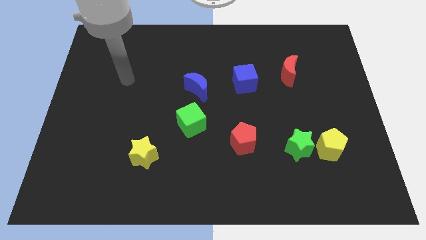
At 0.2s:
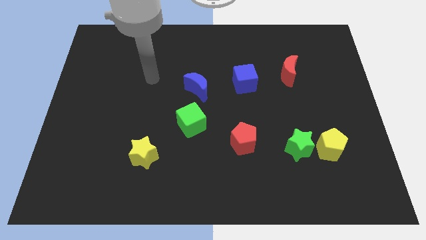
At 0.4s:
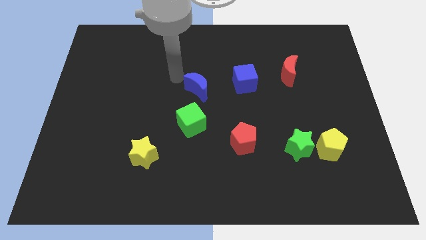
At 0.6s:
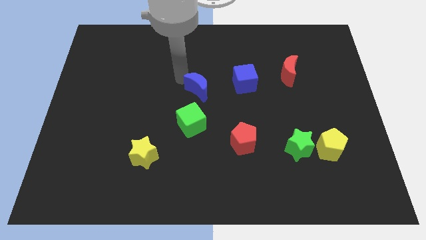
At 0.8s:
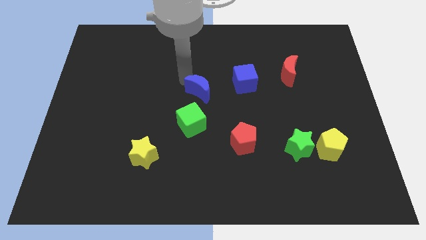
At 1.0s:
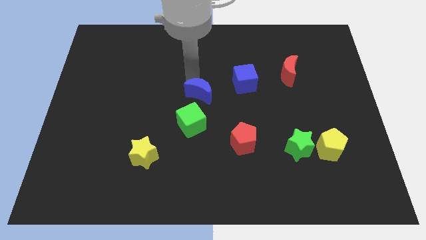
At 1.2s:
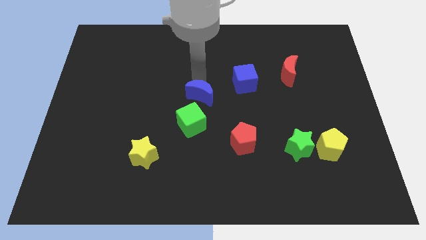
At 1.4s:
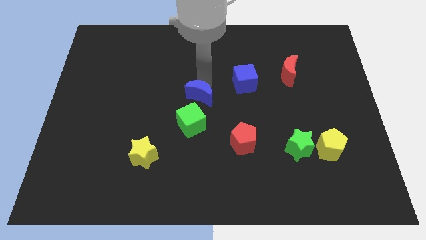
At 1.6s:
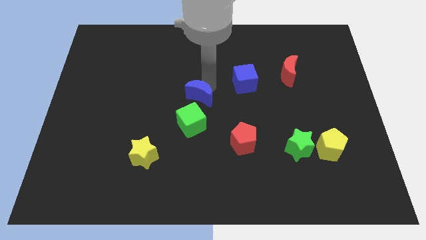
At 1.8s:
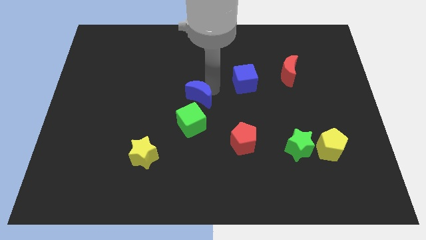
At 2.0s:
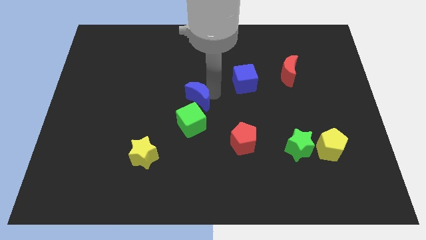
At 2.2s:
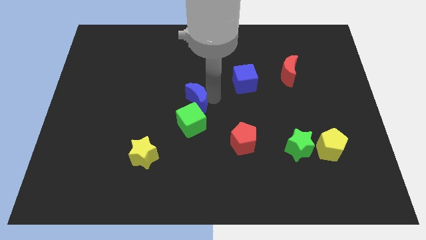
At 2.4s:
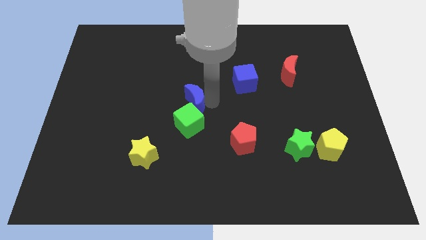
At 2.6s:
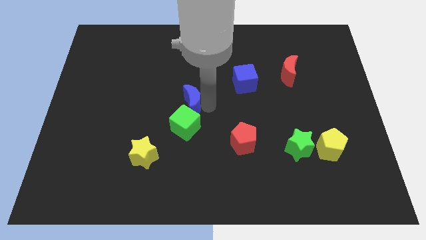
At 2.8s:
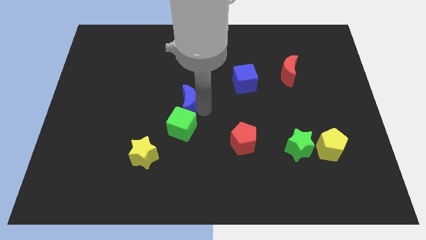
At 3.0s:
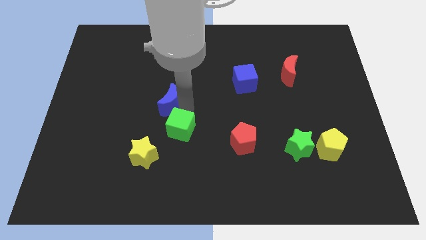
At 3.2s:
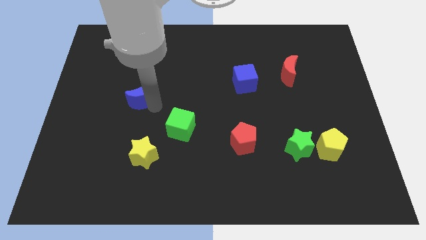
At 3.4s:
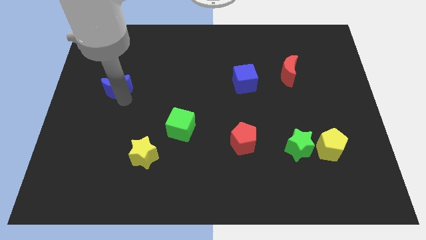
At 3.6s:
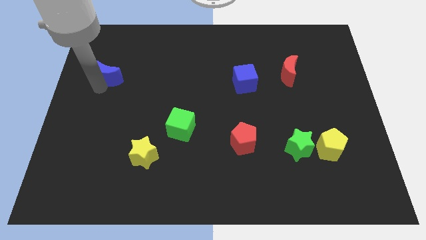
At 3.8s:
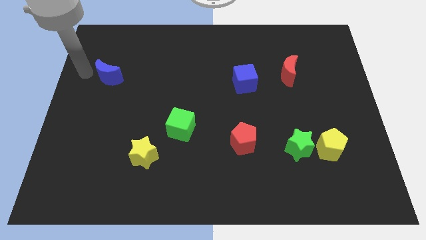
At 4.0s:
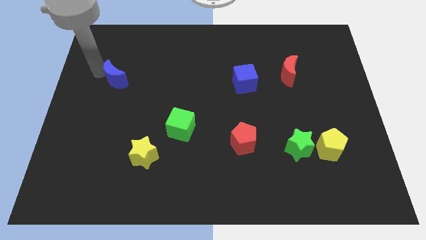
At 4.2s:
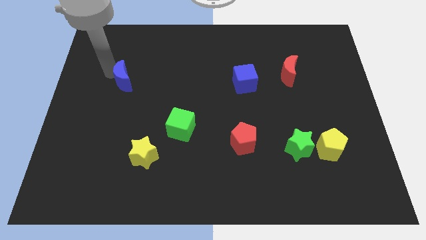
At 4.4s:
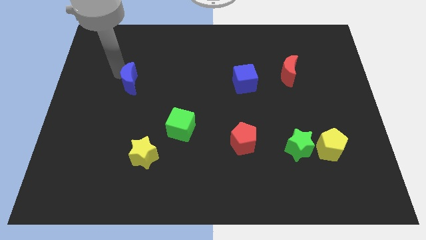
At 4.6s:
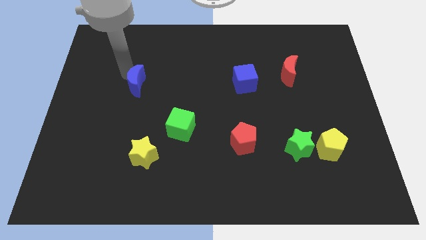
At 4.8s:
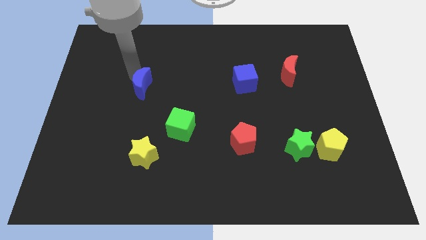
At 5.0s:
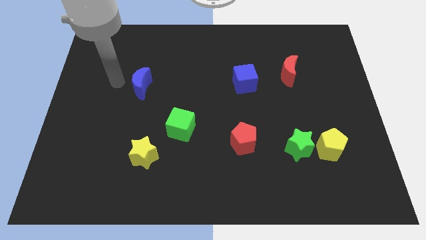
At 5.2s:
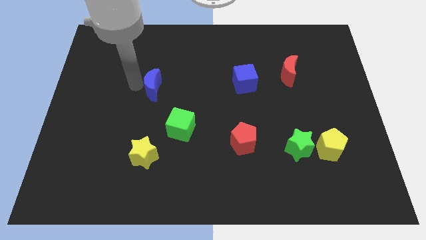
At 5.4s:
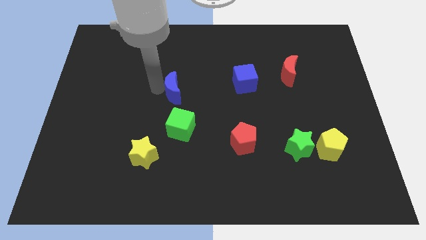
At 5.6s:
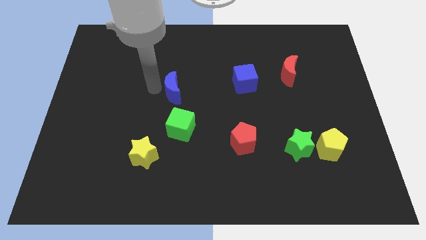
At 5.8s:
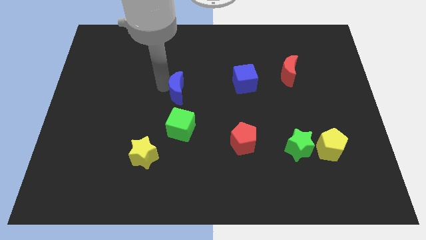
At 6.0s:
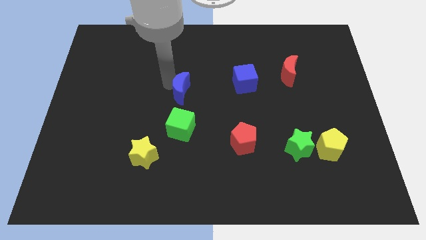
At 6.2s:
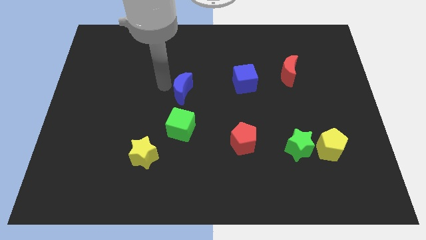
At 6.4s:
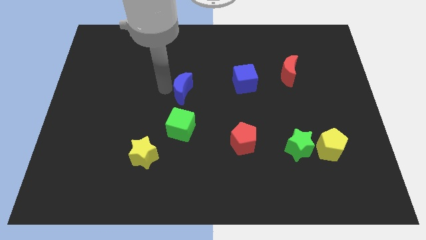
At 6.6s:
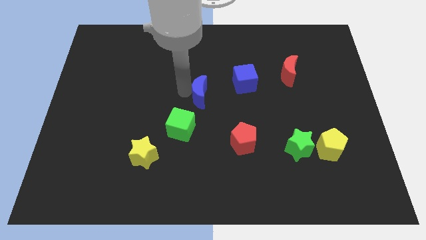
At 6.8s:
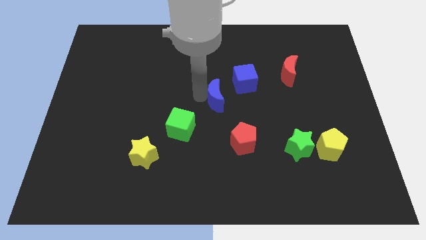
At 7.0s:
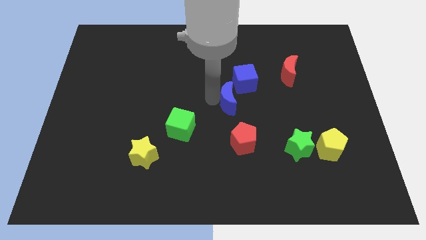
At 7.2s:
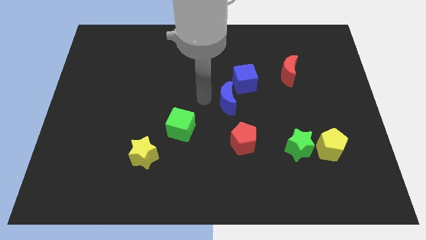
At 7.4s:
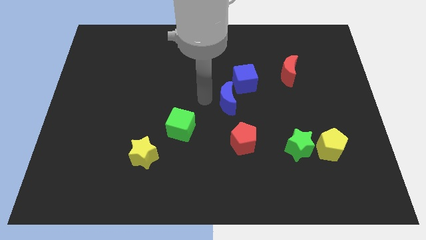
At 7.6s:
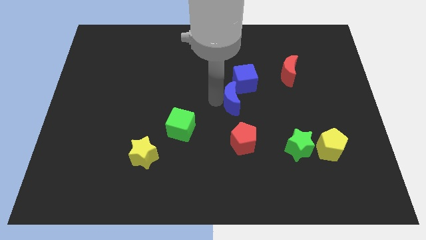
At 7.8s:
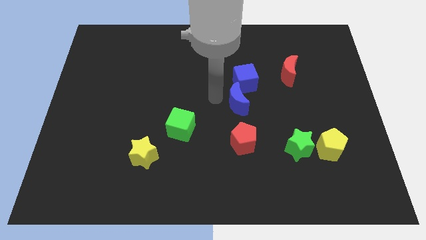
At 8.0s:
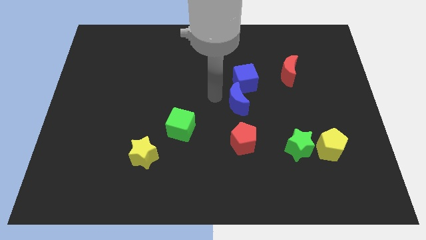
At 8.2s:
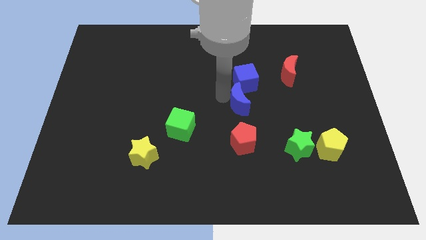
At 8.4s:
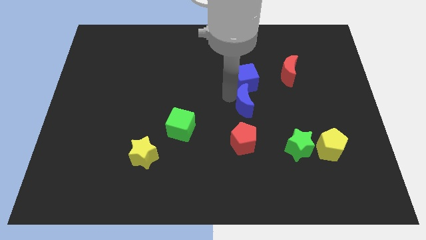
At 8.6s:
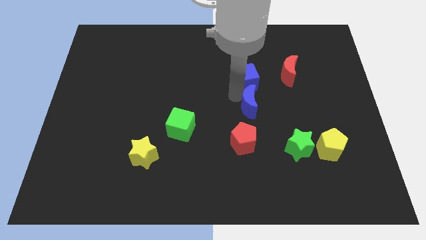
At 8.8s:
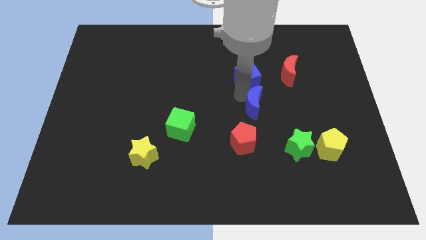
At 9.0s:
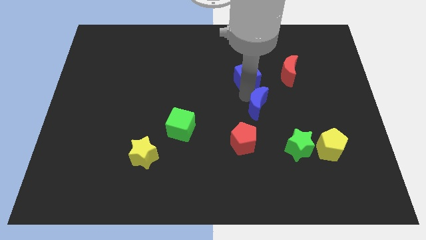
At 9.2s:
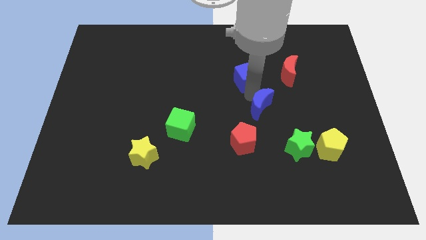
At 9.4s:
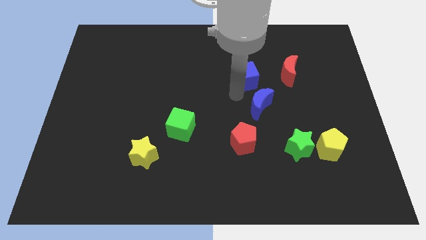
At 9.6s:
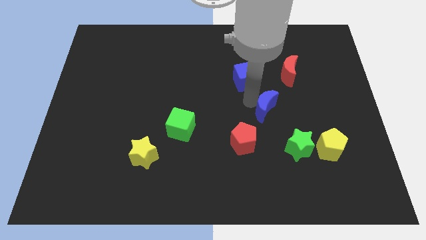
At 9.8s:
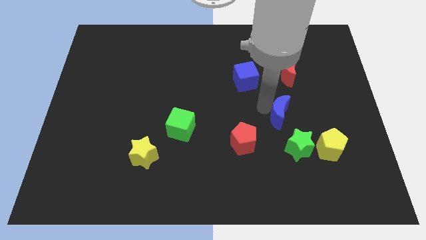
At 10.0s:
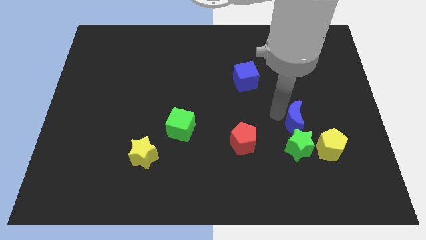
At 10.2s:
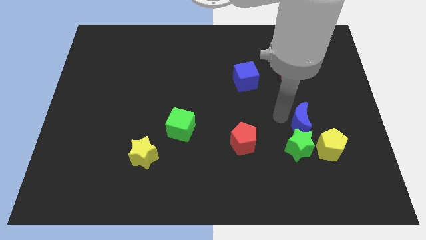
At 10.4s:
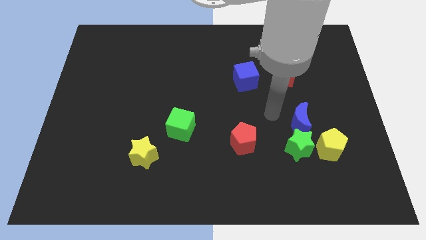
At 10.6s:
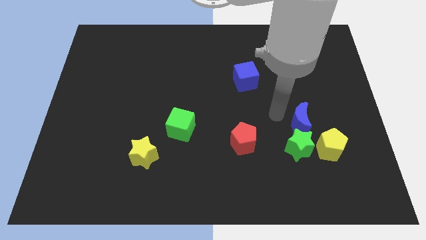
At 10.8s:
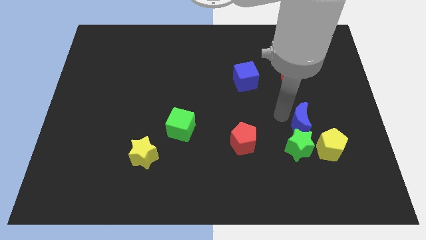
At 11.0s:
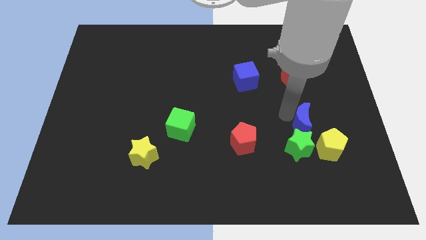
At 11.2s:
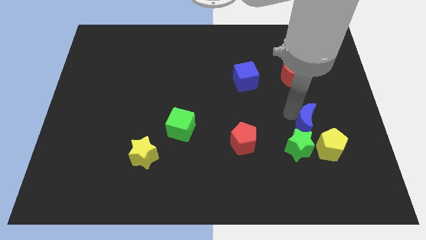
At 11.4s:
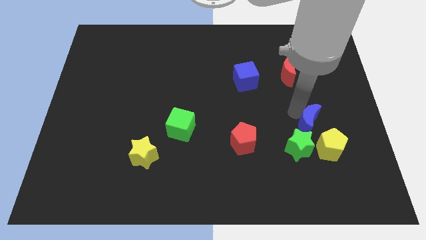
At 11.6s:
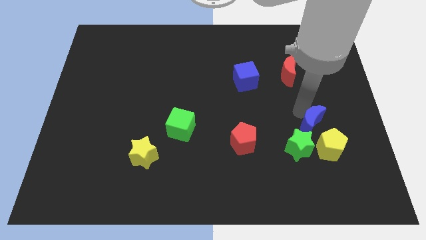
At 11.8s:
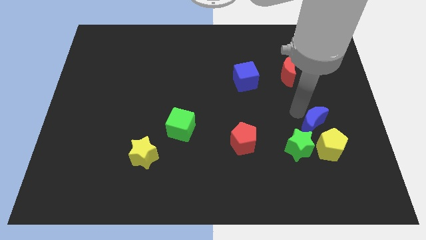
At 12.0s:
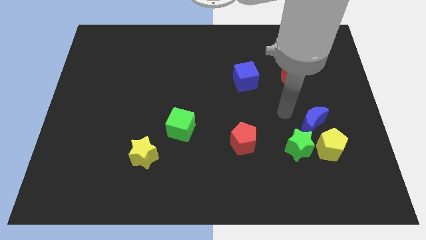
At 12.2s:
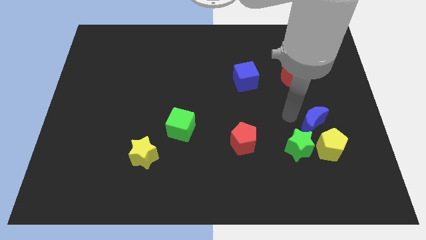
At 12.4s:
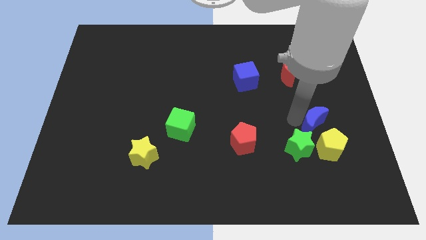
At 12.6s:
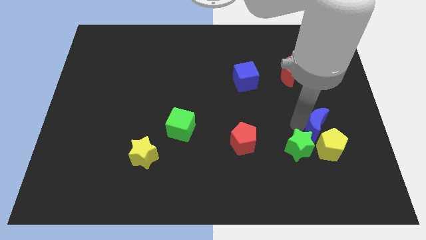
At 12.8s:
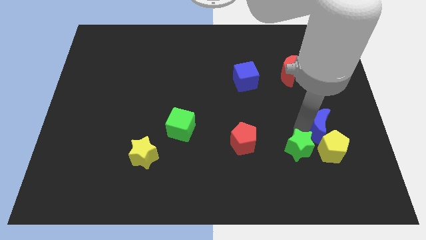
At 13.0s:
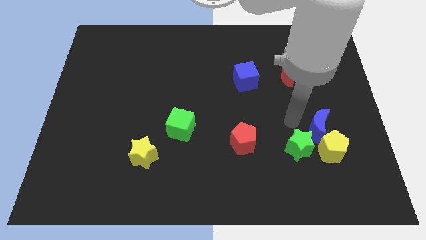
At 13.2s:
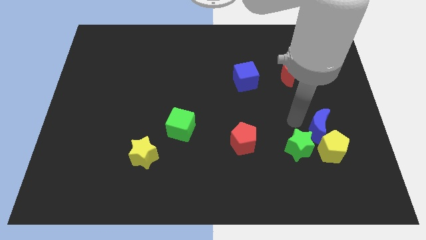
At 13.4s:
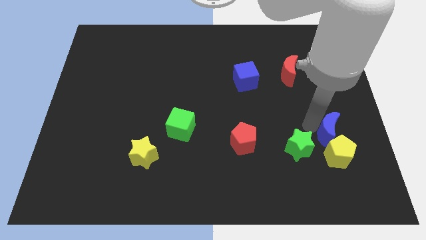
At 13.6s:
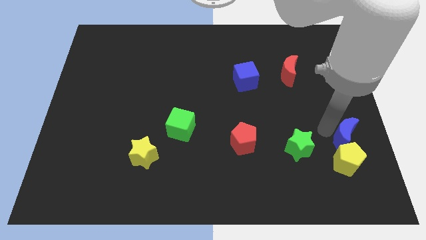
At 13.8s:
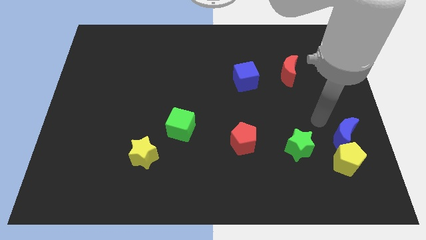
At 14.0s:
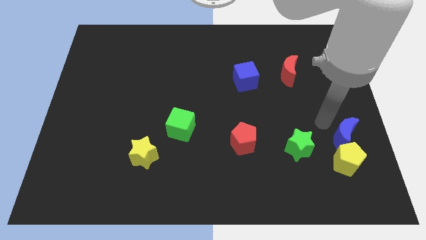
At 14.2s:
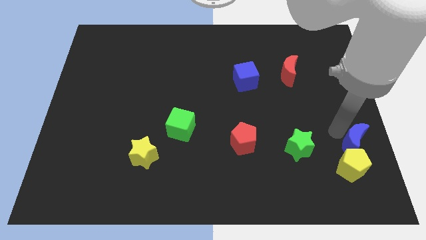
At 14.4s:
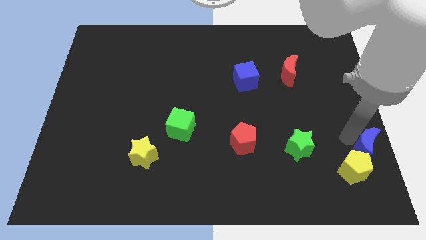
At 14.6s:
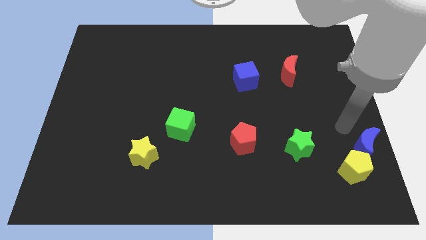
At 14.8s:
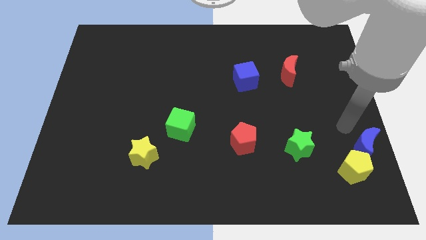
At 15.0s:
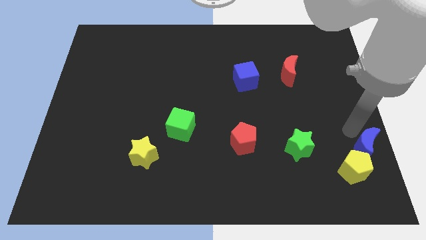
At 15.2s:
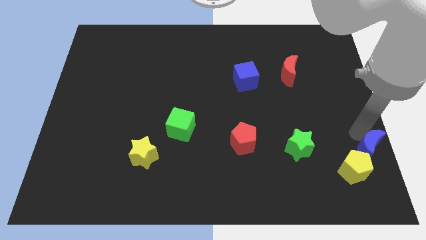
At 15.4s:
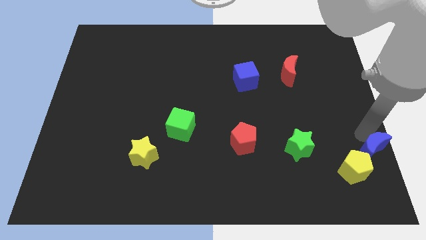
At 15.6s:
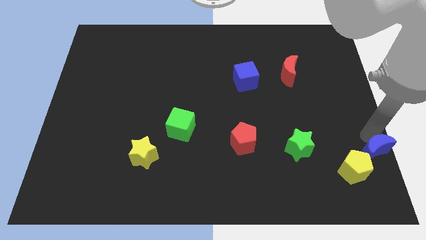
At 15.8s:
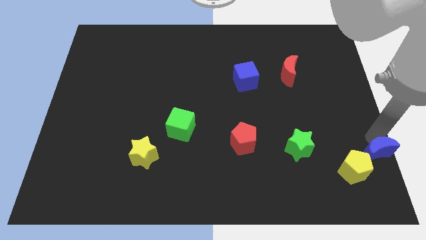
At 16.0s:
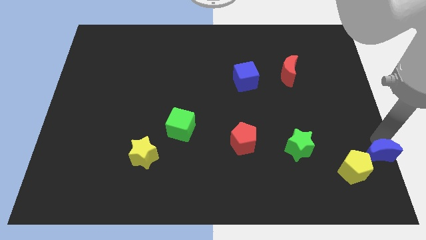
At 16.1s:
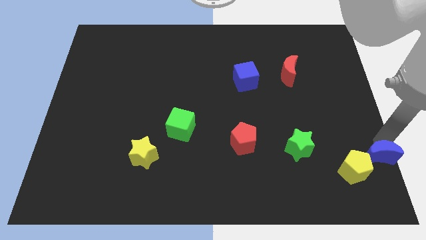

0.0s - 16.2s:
slide the blue moon to the lower right corner
